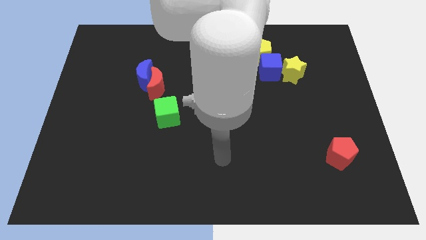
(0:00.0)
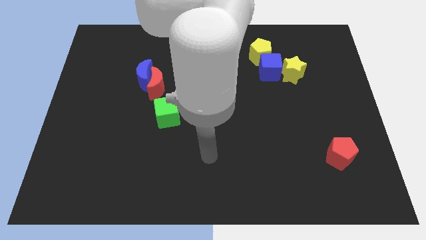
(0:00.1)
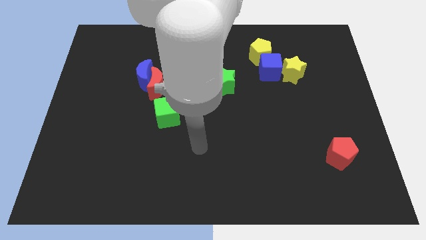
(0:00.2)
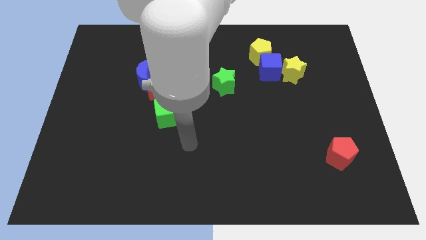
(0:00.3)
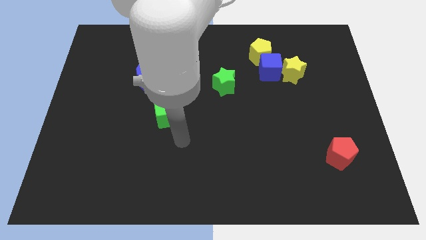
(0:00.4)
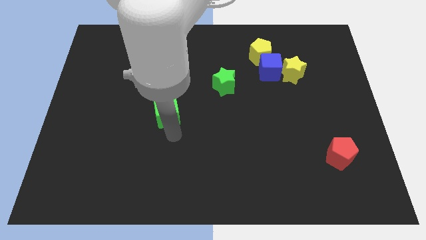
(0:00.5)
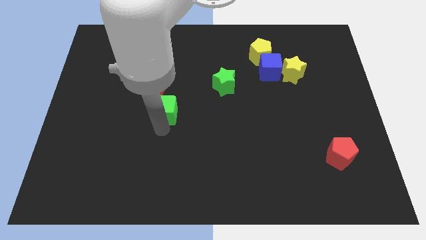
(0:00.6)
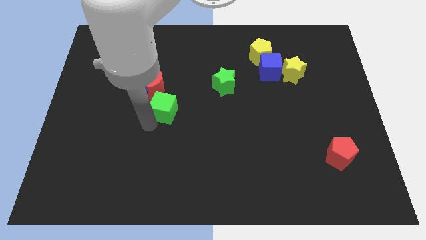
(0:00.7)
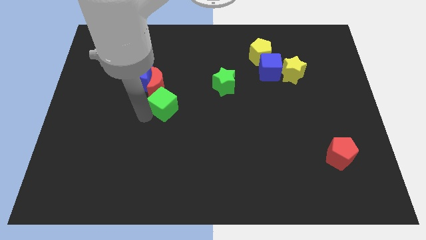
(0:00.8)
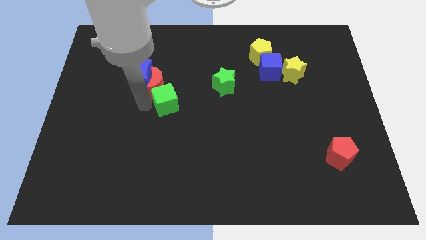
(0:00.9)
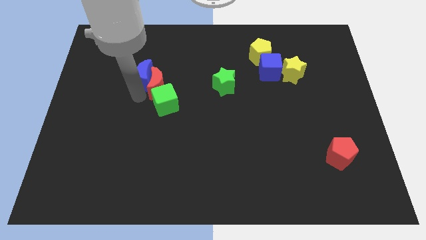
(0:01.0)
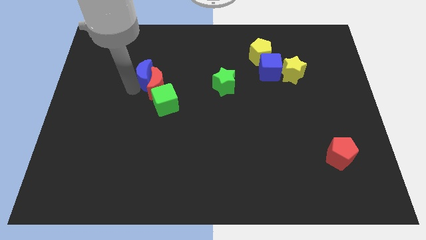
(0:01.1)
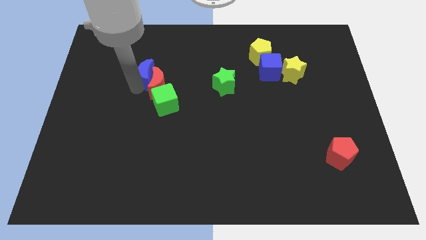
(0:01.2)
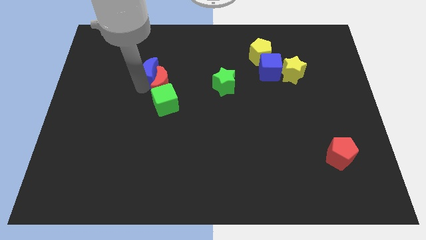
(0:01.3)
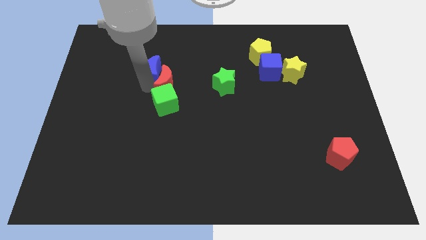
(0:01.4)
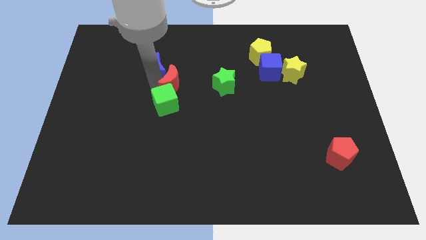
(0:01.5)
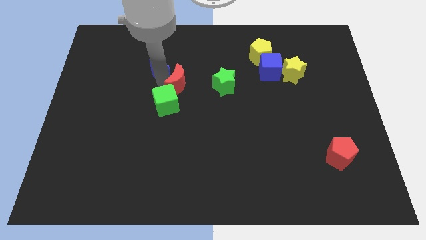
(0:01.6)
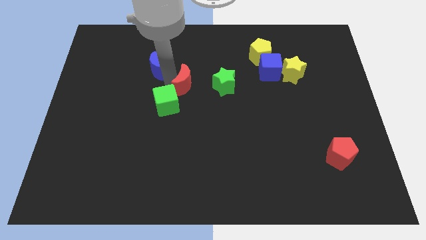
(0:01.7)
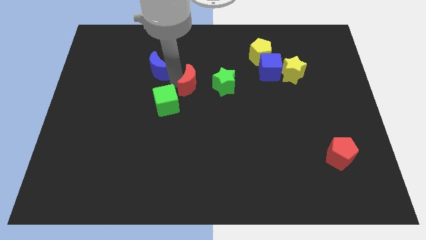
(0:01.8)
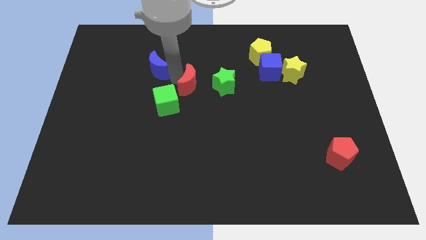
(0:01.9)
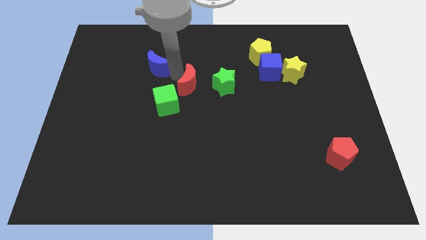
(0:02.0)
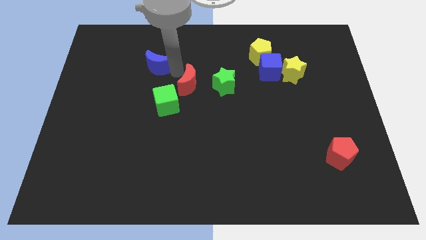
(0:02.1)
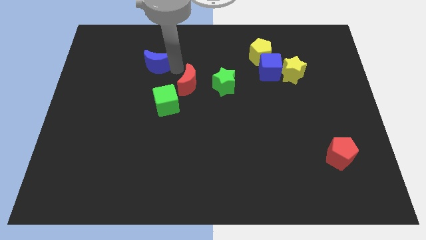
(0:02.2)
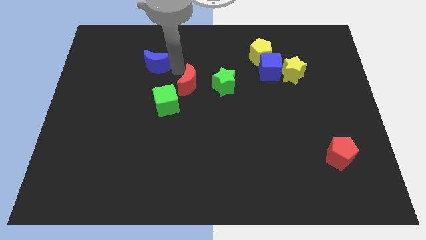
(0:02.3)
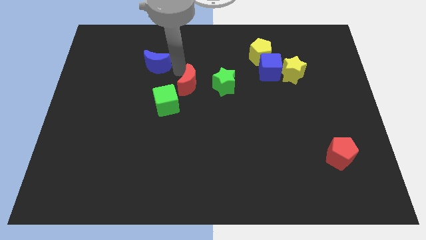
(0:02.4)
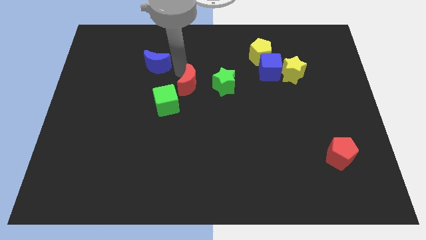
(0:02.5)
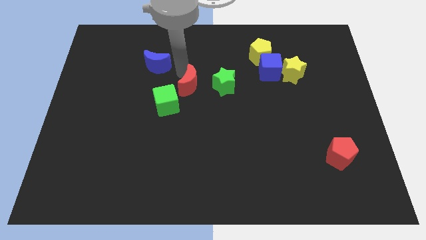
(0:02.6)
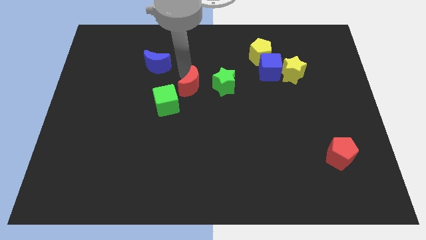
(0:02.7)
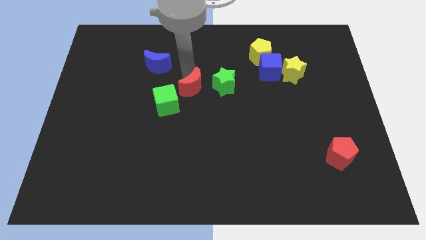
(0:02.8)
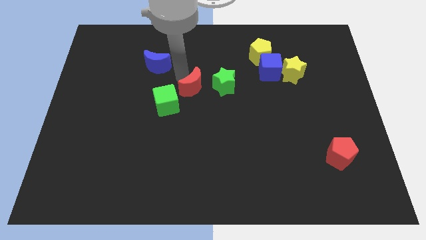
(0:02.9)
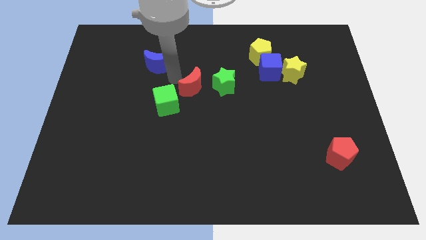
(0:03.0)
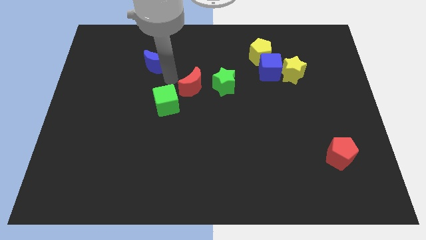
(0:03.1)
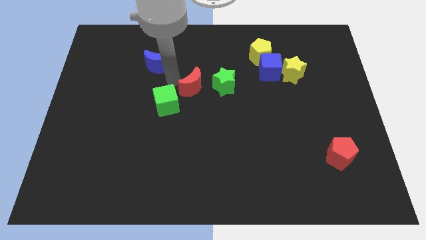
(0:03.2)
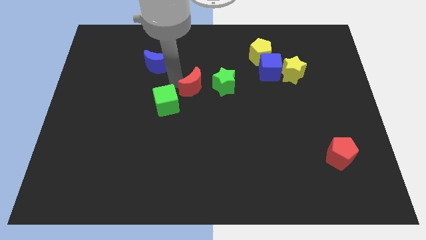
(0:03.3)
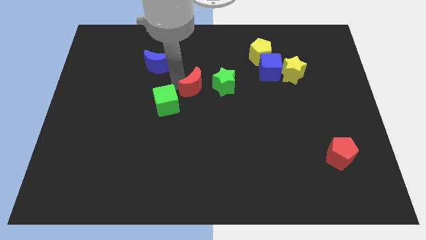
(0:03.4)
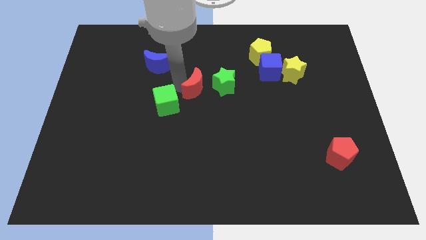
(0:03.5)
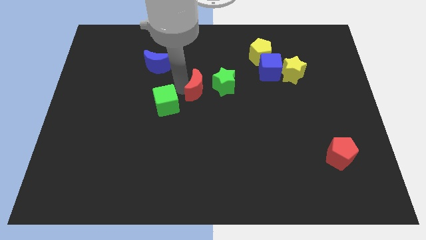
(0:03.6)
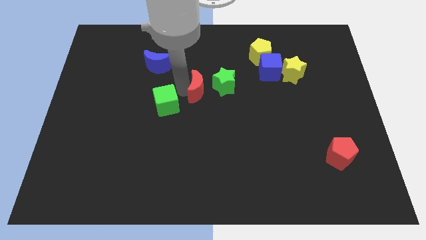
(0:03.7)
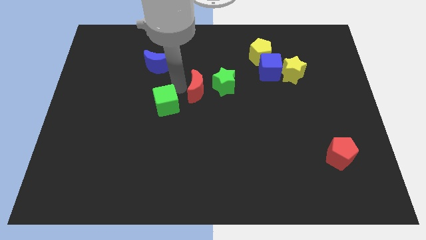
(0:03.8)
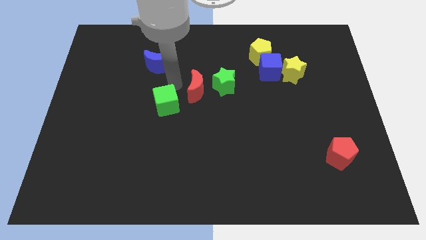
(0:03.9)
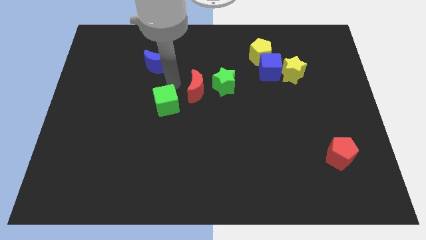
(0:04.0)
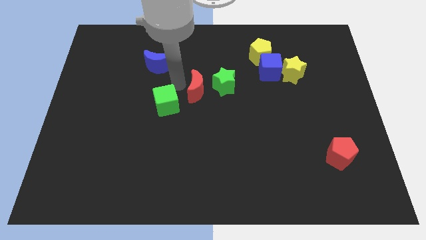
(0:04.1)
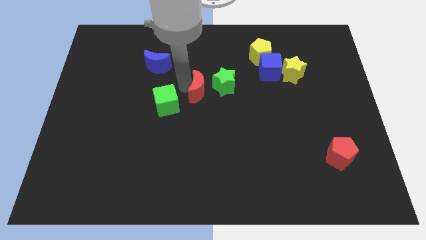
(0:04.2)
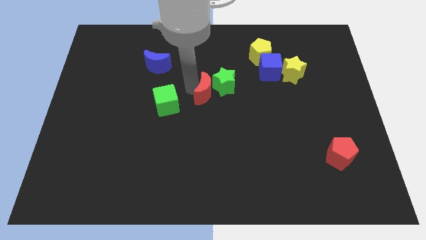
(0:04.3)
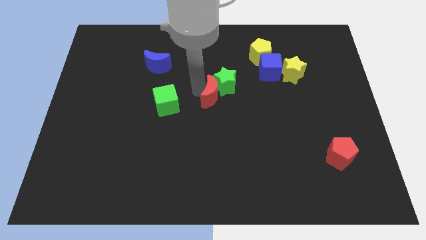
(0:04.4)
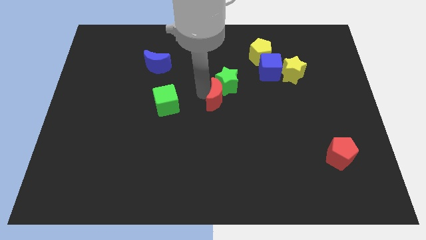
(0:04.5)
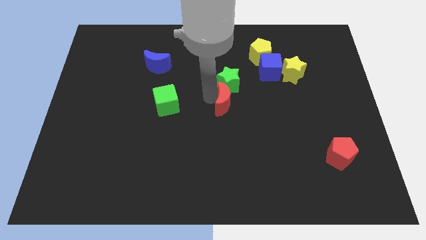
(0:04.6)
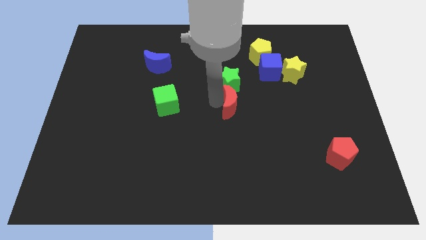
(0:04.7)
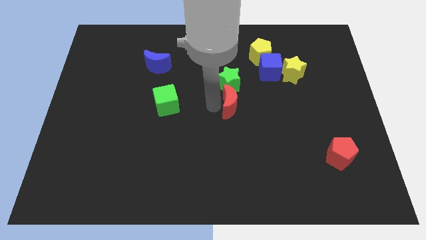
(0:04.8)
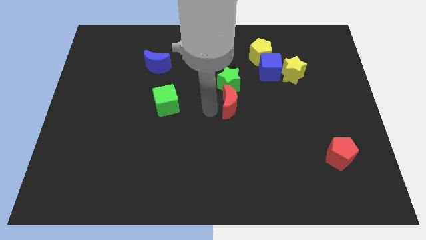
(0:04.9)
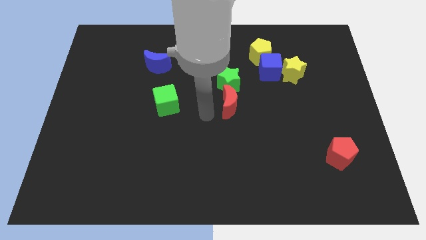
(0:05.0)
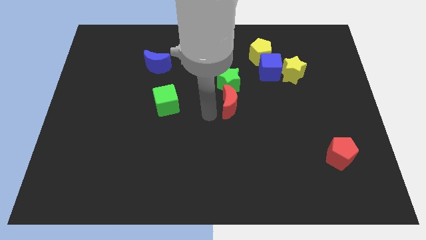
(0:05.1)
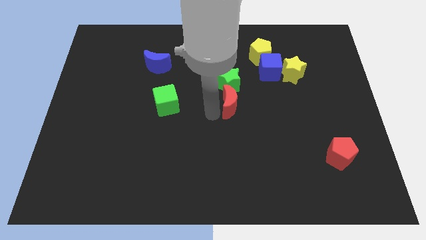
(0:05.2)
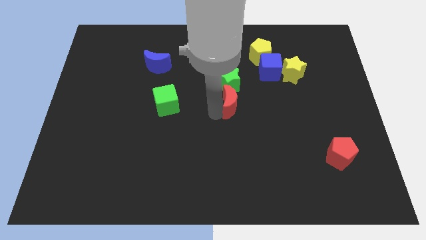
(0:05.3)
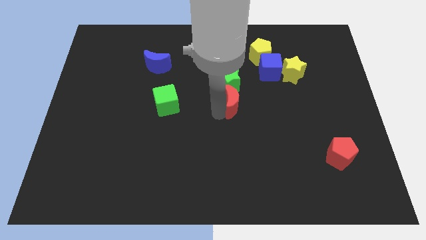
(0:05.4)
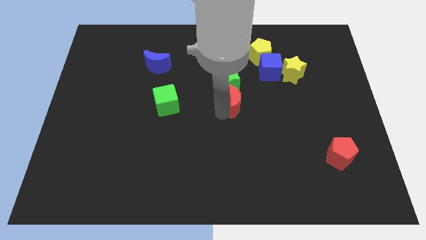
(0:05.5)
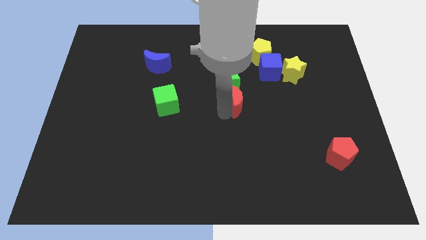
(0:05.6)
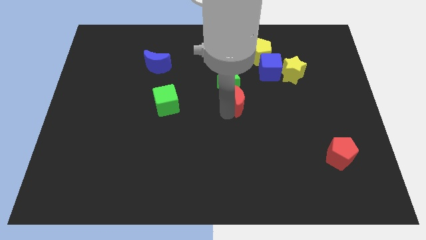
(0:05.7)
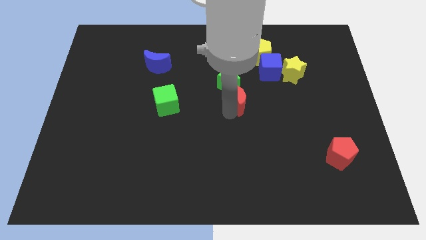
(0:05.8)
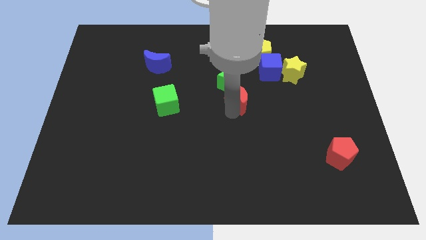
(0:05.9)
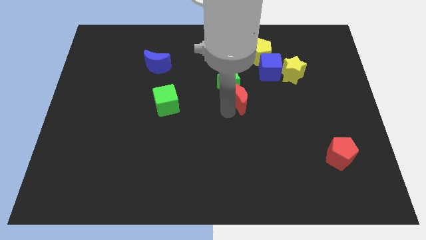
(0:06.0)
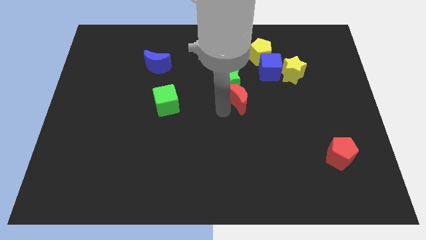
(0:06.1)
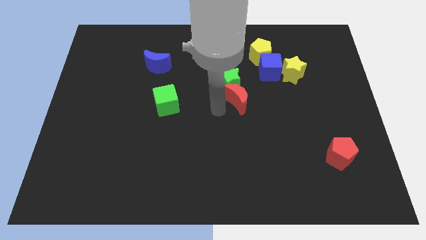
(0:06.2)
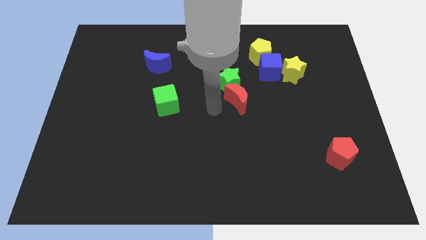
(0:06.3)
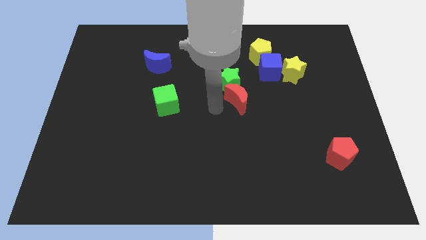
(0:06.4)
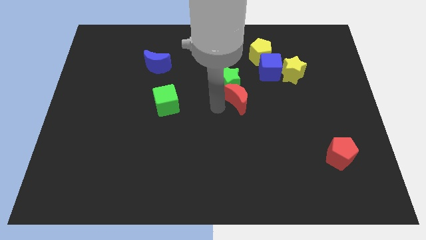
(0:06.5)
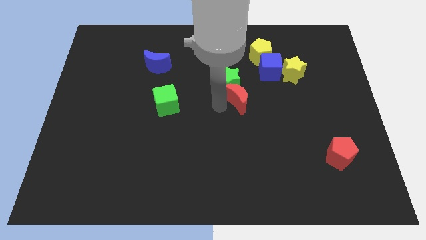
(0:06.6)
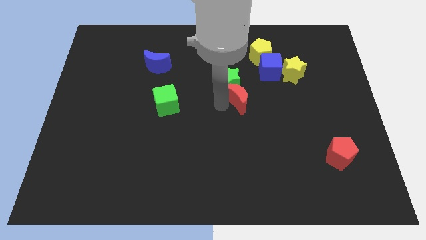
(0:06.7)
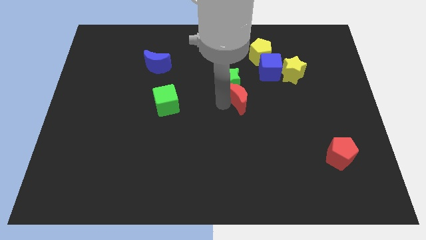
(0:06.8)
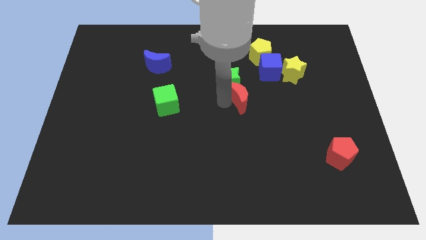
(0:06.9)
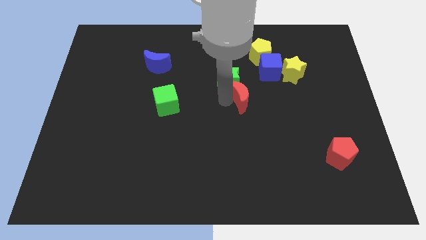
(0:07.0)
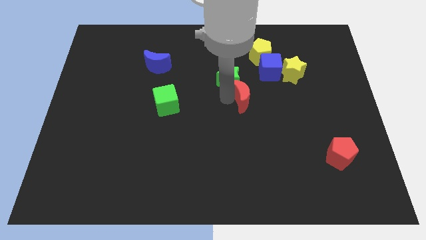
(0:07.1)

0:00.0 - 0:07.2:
push the red moon to the right

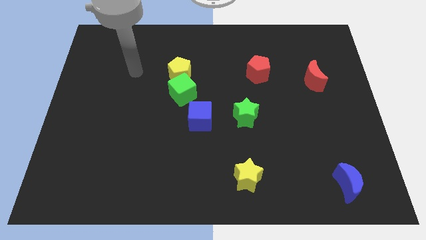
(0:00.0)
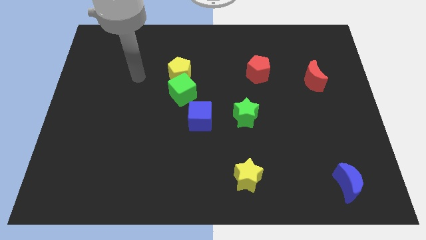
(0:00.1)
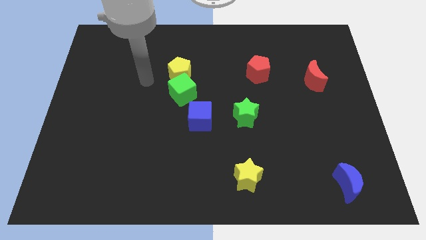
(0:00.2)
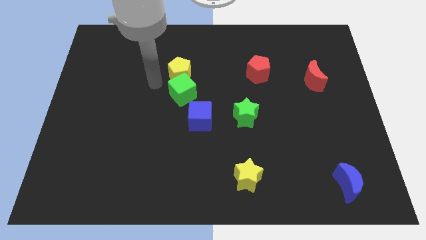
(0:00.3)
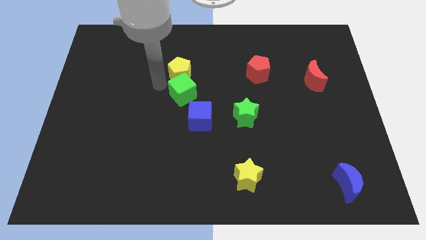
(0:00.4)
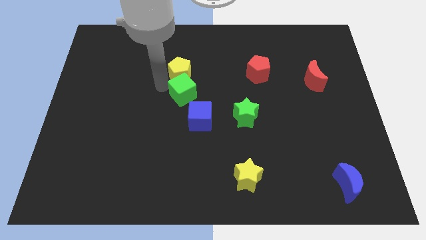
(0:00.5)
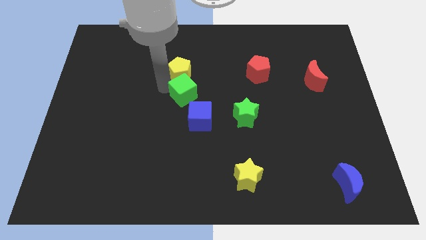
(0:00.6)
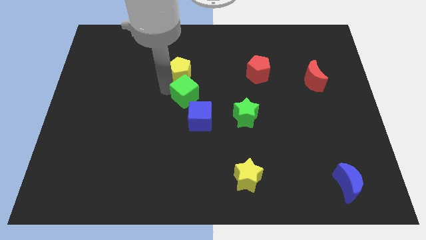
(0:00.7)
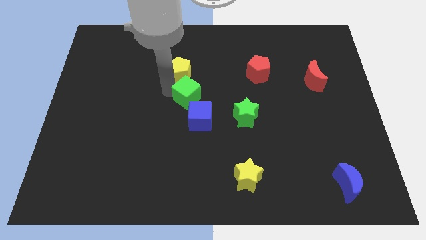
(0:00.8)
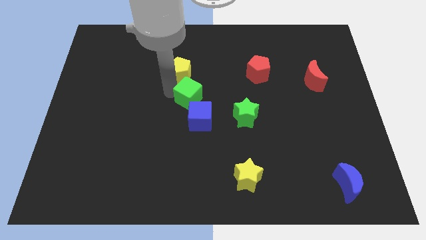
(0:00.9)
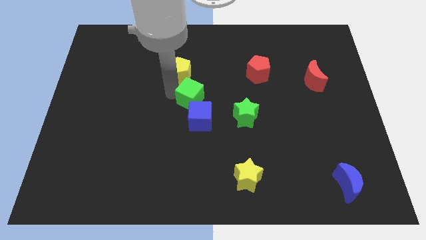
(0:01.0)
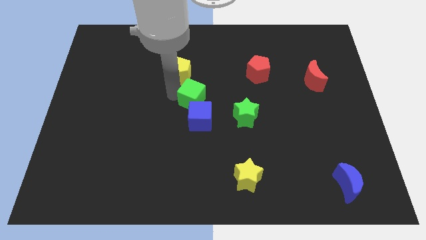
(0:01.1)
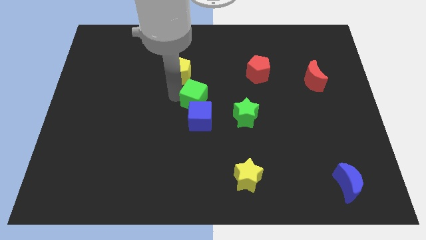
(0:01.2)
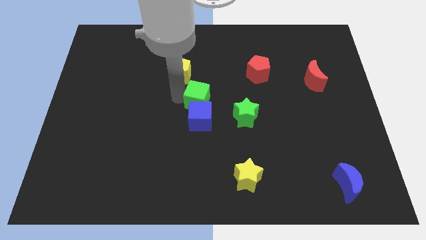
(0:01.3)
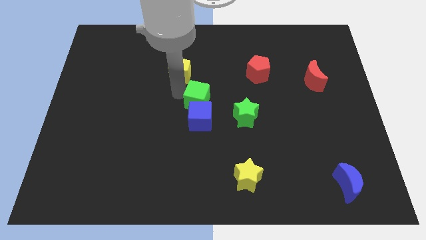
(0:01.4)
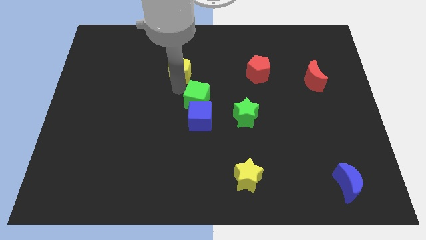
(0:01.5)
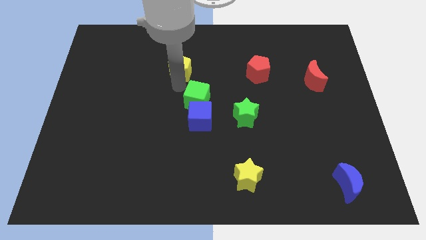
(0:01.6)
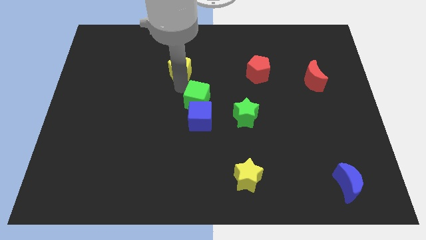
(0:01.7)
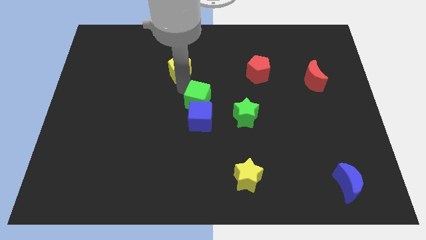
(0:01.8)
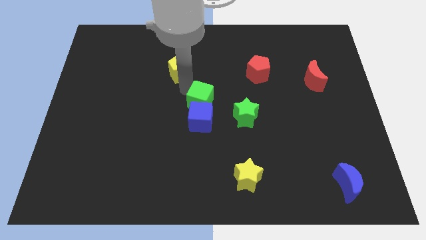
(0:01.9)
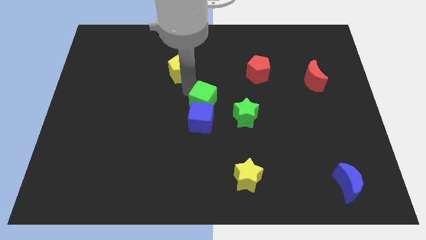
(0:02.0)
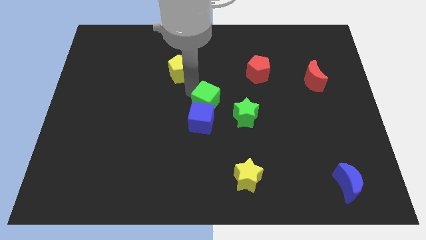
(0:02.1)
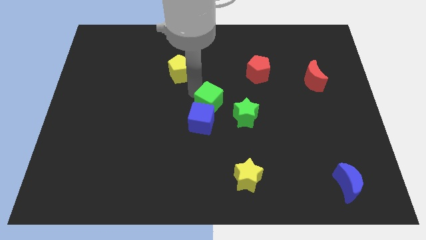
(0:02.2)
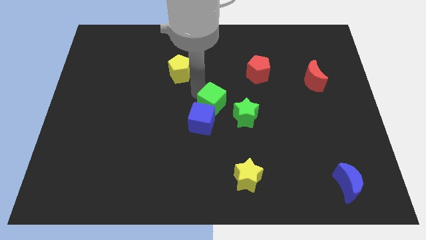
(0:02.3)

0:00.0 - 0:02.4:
move the green cube slightly downwards and right
